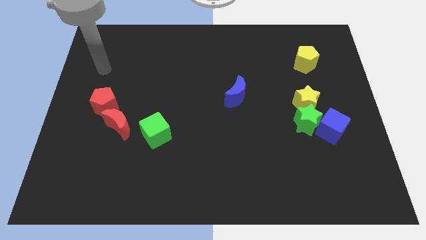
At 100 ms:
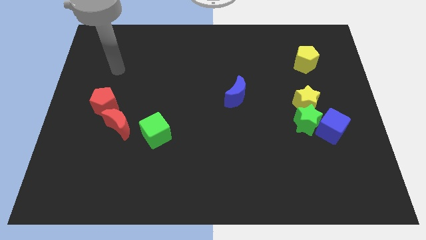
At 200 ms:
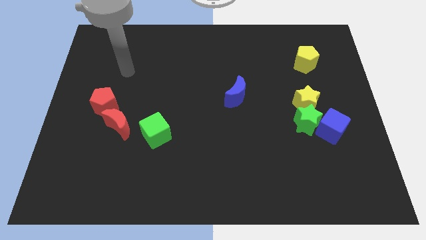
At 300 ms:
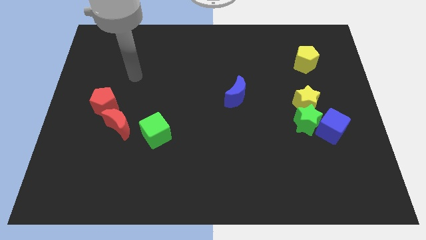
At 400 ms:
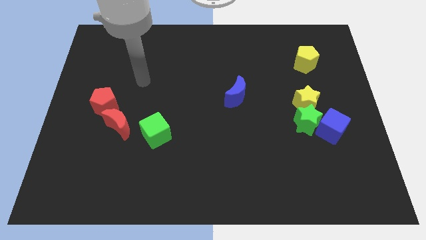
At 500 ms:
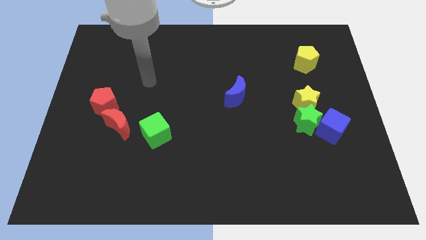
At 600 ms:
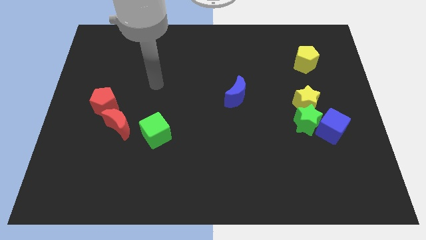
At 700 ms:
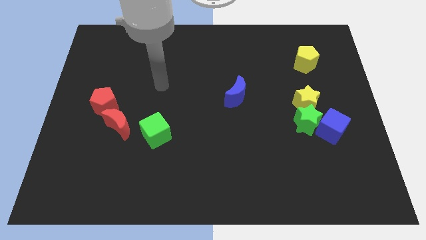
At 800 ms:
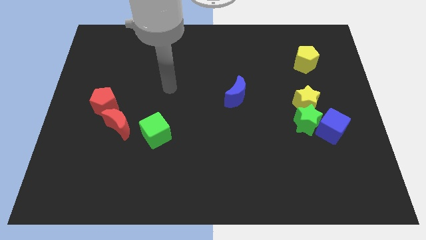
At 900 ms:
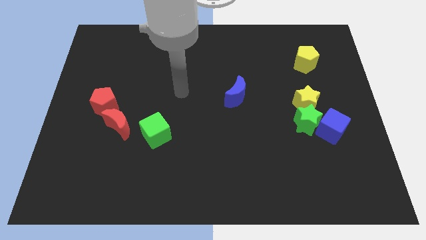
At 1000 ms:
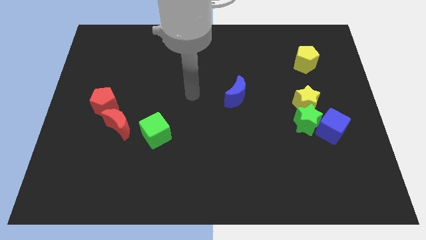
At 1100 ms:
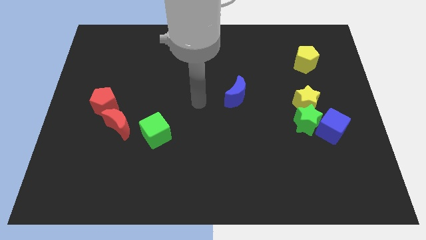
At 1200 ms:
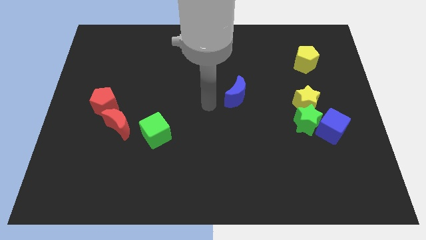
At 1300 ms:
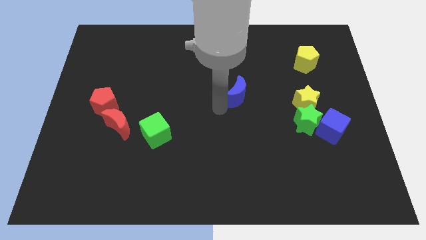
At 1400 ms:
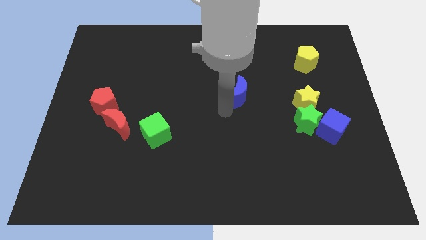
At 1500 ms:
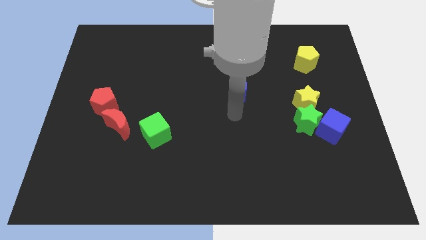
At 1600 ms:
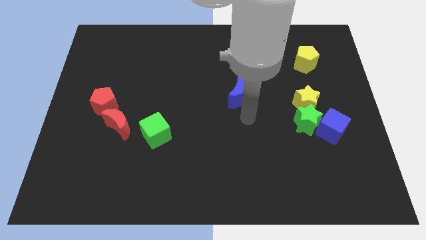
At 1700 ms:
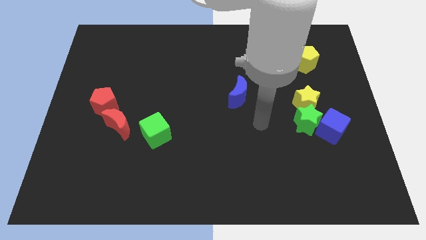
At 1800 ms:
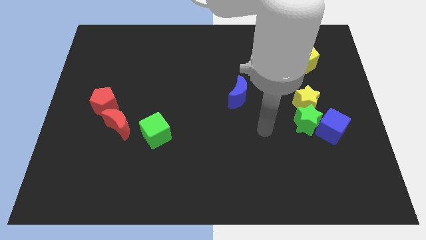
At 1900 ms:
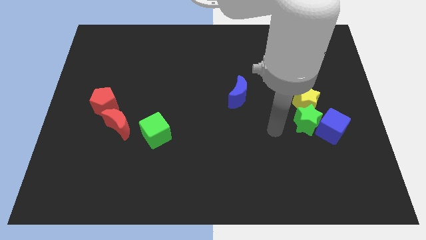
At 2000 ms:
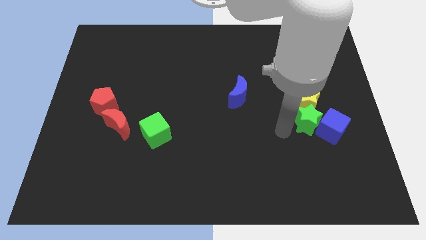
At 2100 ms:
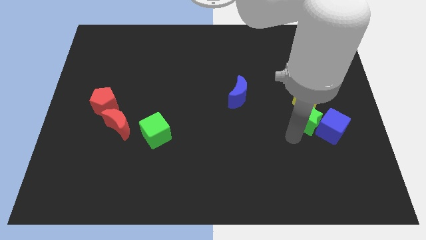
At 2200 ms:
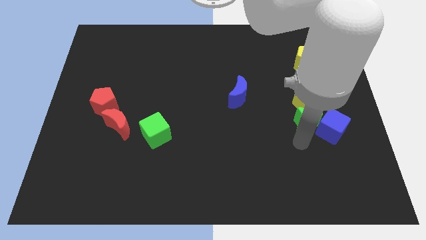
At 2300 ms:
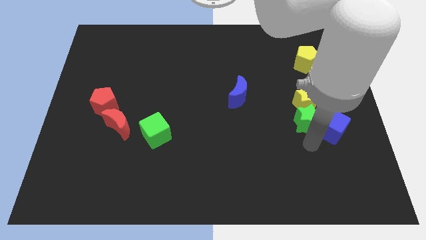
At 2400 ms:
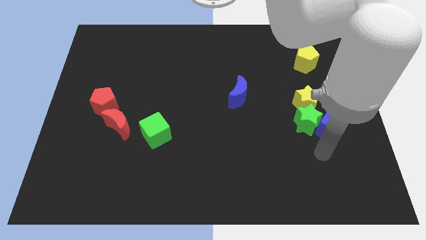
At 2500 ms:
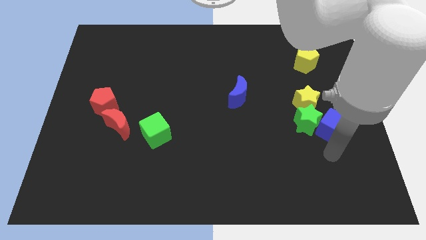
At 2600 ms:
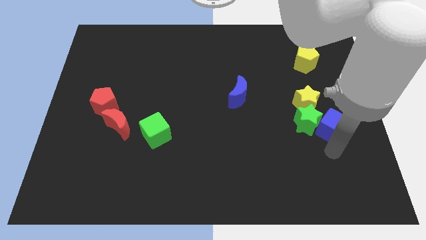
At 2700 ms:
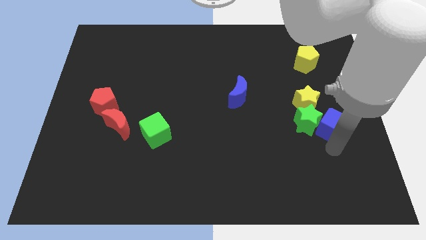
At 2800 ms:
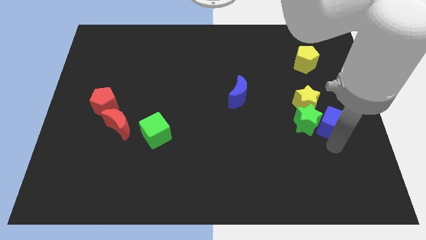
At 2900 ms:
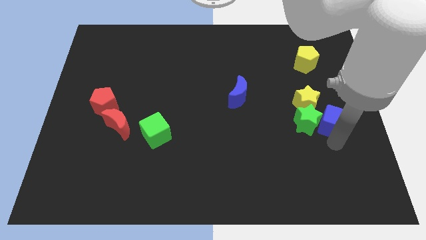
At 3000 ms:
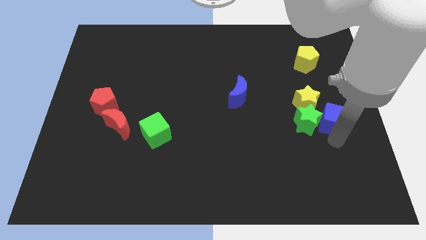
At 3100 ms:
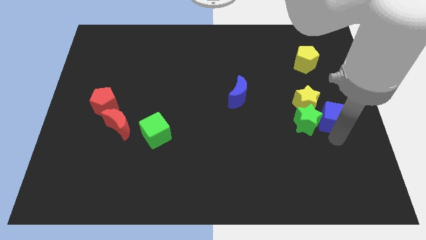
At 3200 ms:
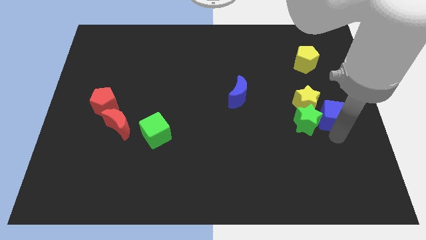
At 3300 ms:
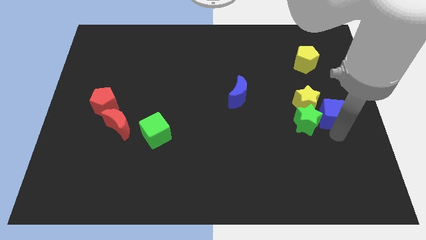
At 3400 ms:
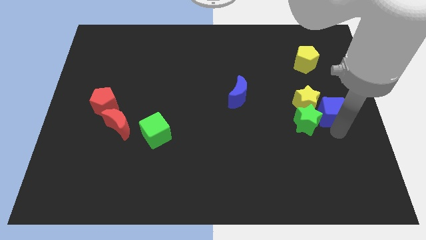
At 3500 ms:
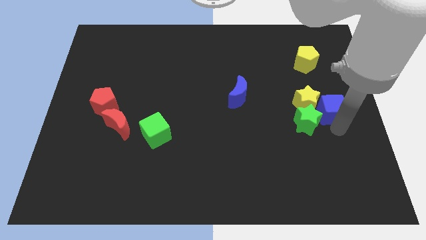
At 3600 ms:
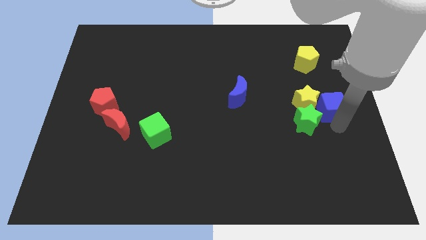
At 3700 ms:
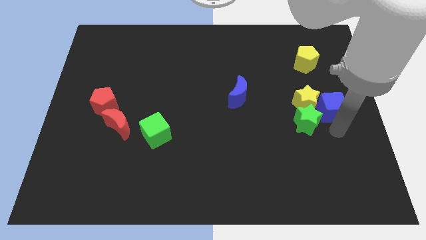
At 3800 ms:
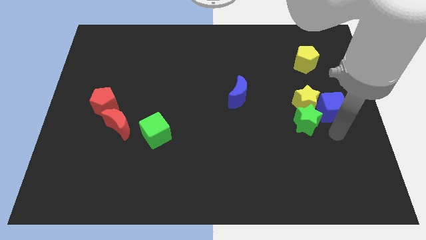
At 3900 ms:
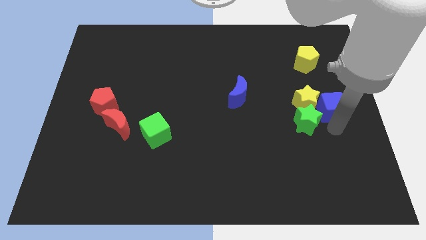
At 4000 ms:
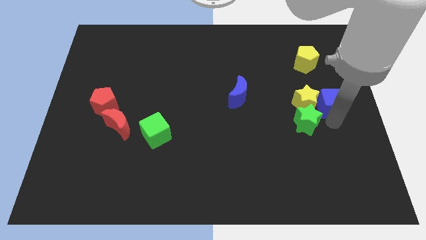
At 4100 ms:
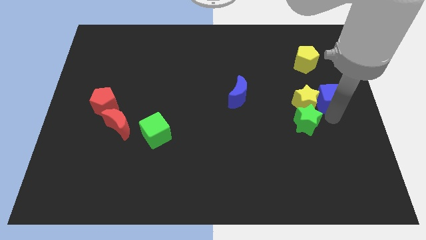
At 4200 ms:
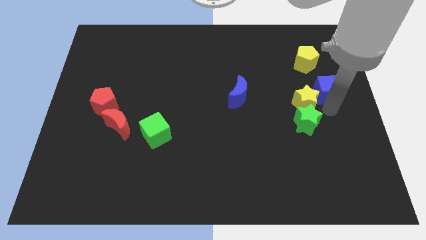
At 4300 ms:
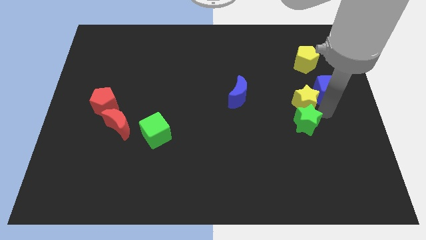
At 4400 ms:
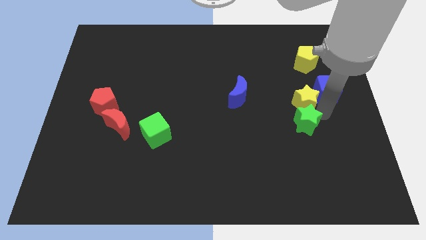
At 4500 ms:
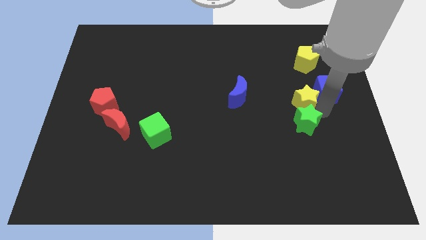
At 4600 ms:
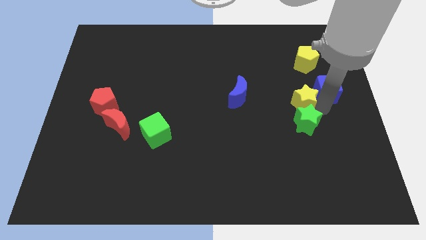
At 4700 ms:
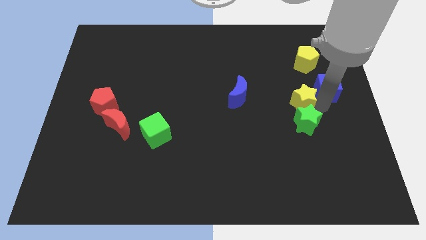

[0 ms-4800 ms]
put the blue cube diagonally down and to the right of the yellow pentagon

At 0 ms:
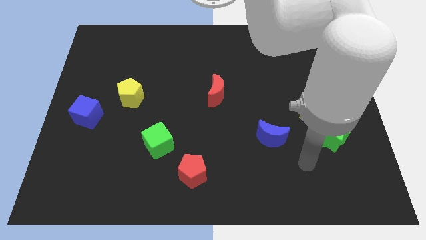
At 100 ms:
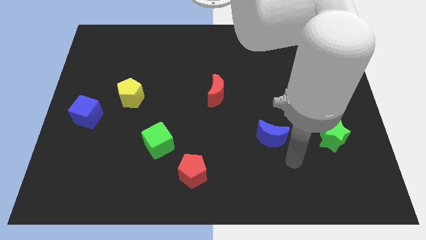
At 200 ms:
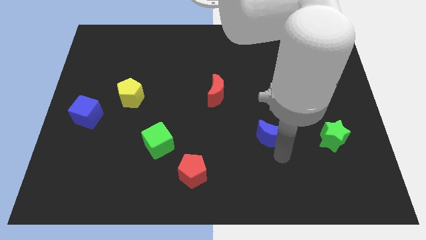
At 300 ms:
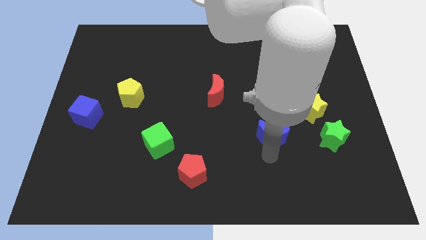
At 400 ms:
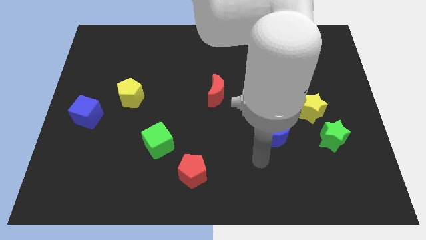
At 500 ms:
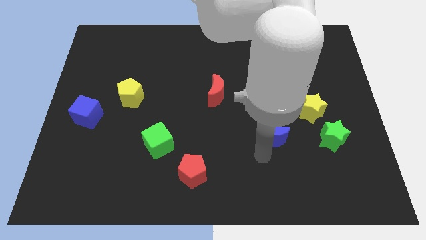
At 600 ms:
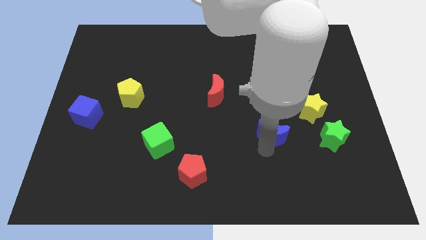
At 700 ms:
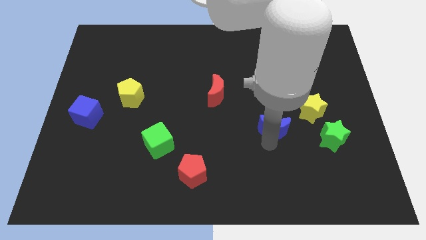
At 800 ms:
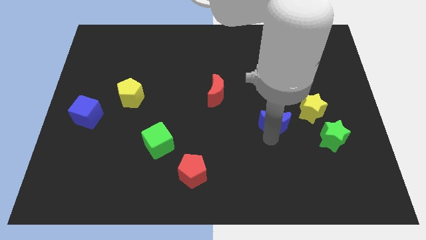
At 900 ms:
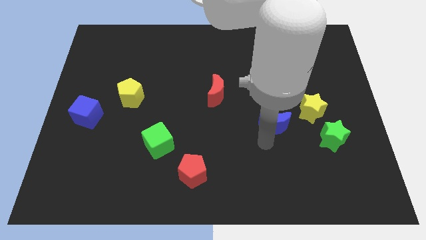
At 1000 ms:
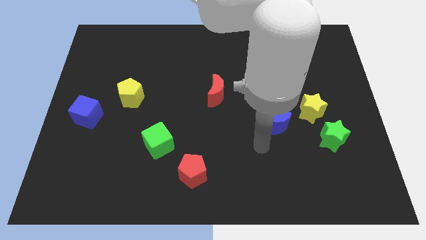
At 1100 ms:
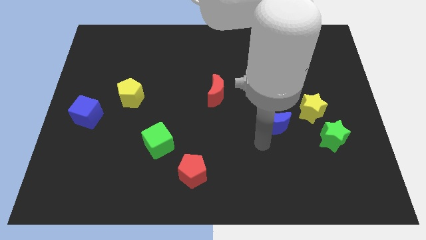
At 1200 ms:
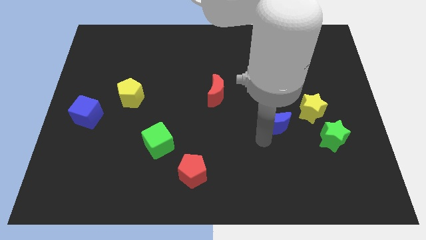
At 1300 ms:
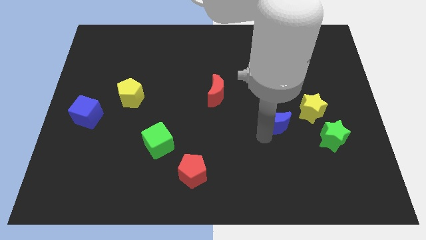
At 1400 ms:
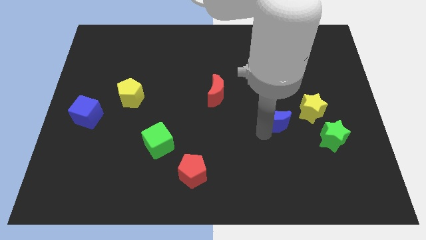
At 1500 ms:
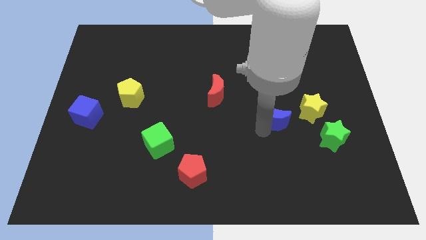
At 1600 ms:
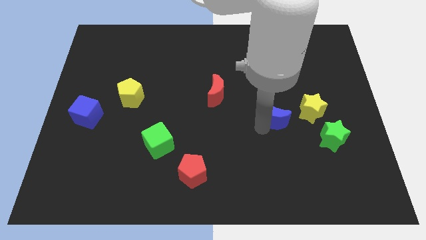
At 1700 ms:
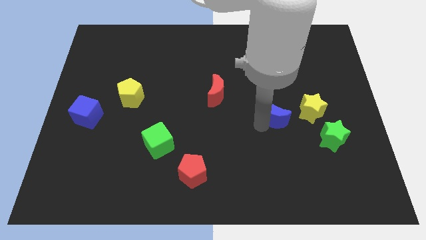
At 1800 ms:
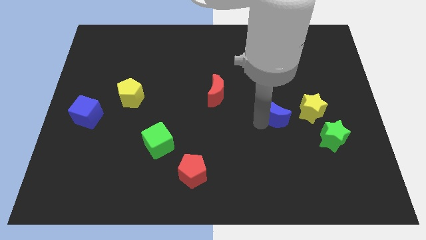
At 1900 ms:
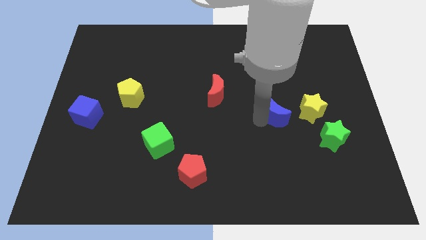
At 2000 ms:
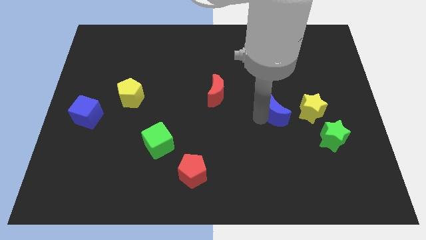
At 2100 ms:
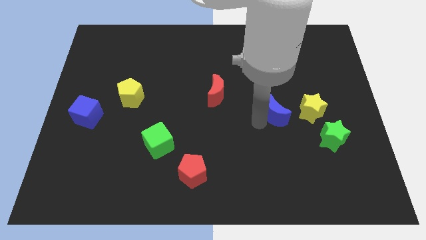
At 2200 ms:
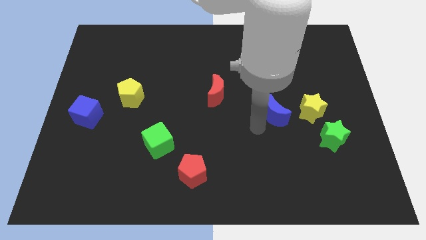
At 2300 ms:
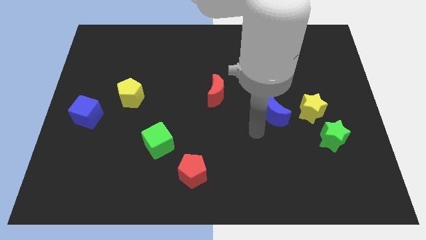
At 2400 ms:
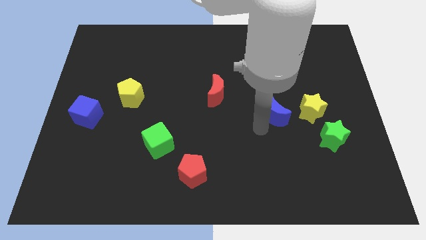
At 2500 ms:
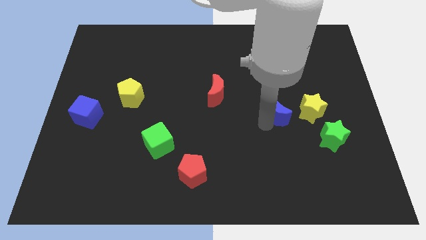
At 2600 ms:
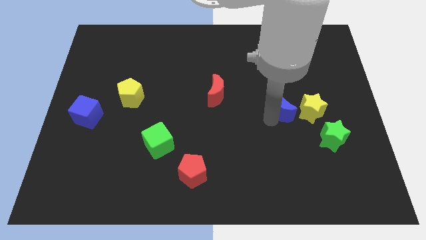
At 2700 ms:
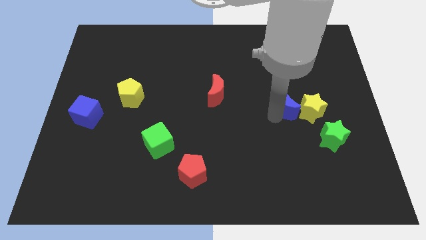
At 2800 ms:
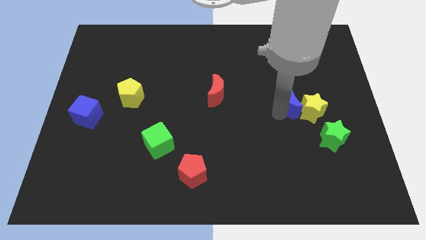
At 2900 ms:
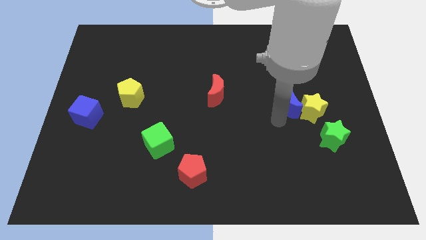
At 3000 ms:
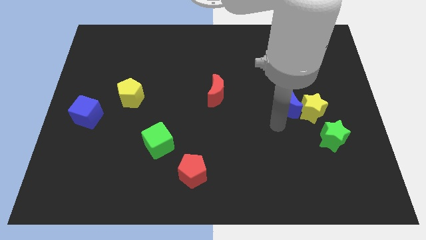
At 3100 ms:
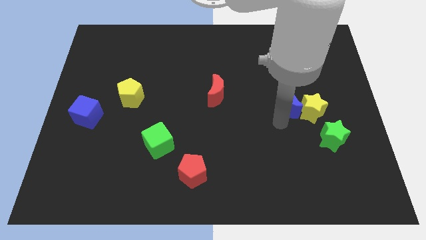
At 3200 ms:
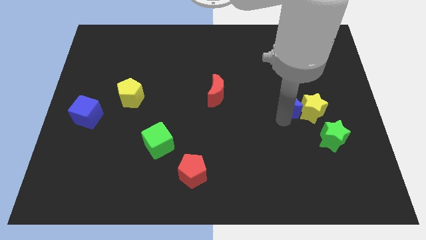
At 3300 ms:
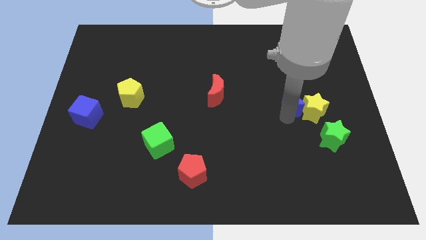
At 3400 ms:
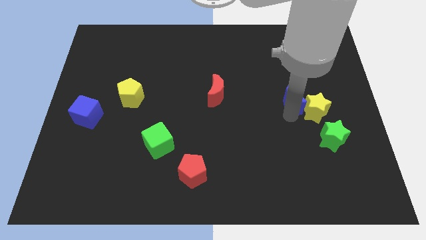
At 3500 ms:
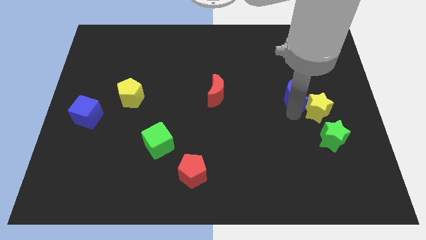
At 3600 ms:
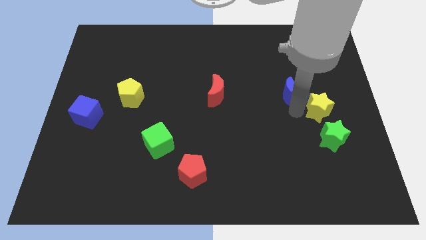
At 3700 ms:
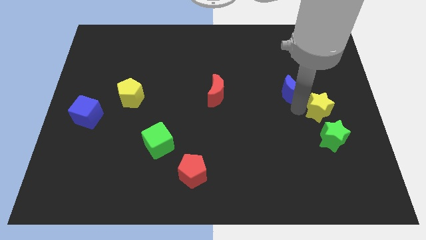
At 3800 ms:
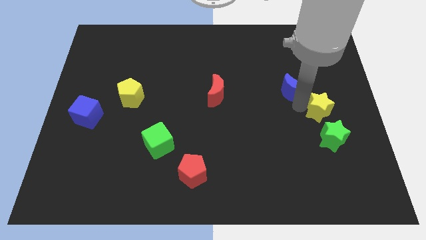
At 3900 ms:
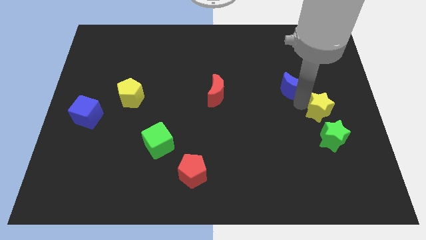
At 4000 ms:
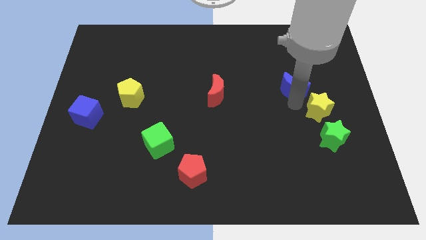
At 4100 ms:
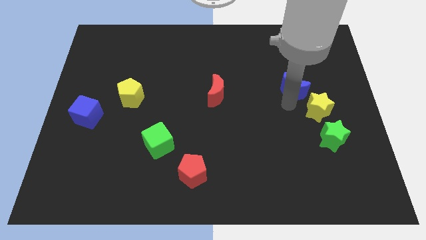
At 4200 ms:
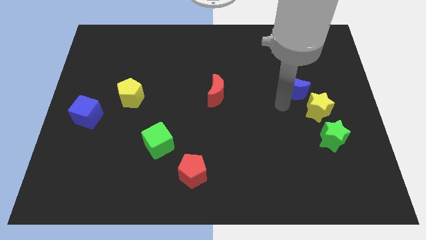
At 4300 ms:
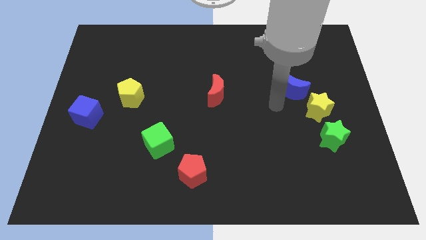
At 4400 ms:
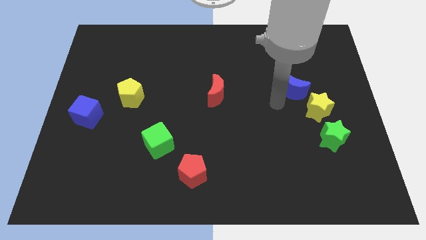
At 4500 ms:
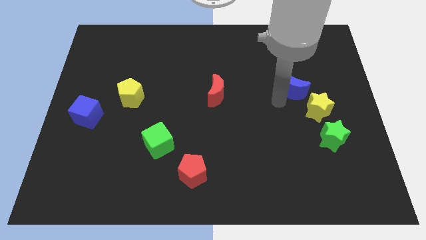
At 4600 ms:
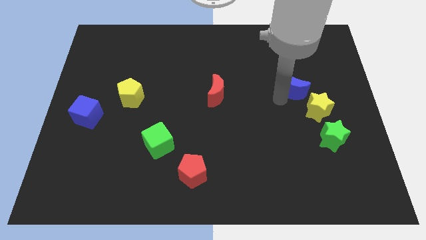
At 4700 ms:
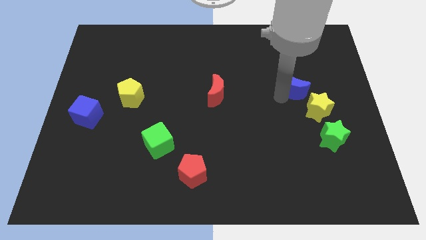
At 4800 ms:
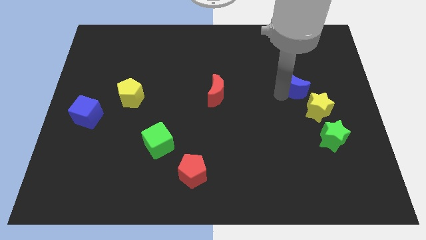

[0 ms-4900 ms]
put the blue moon above the yellow star
